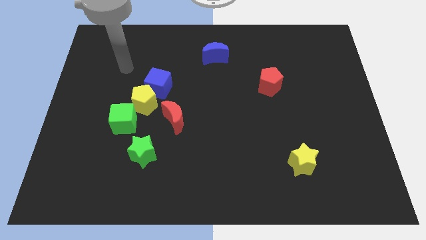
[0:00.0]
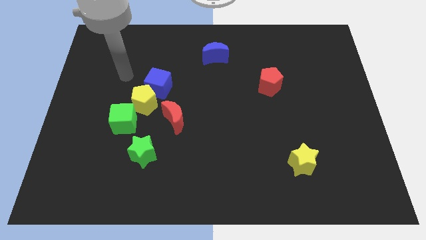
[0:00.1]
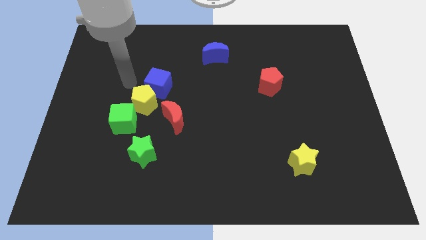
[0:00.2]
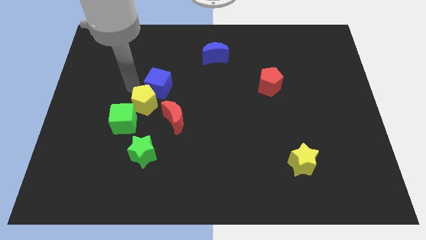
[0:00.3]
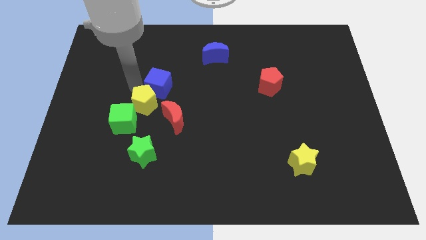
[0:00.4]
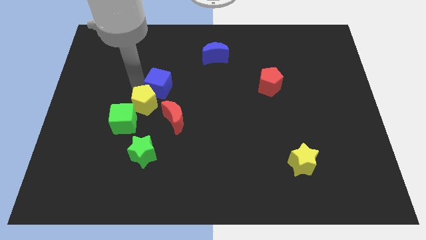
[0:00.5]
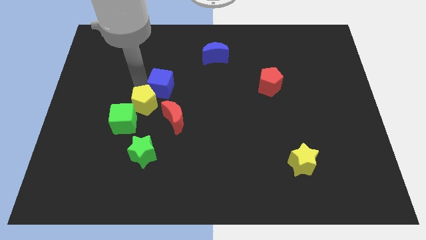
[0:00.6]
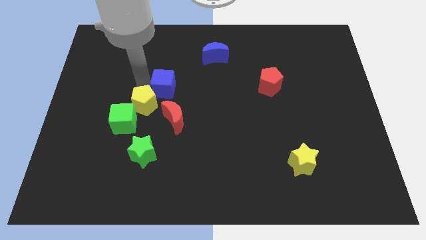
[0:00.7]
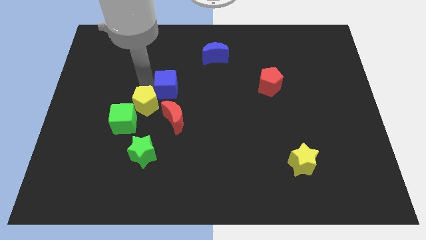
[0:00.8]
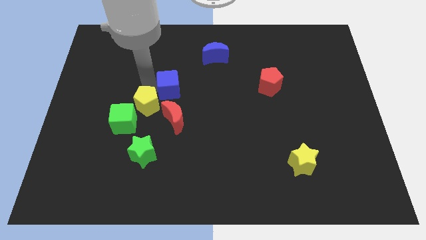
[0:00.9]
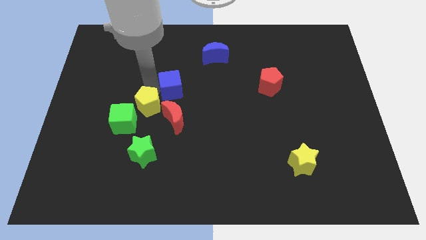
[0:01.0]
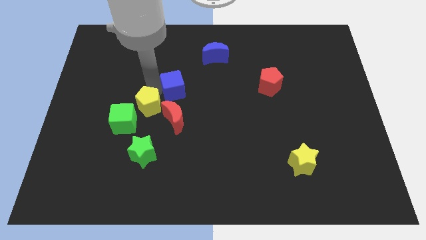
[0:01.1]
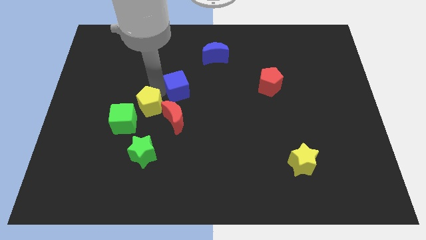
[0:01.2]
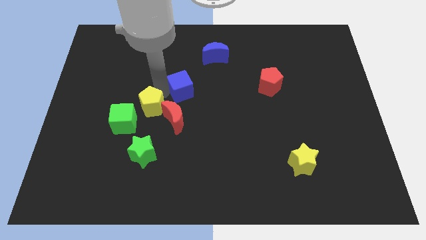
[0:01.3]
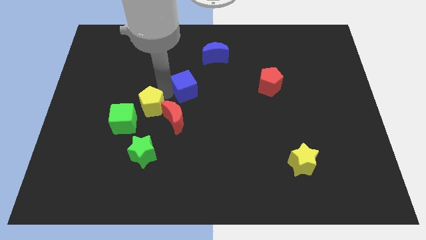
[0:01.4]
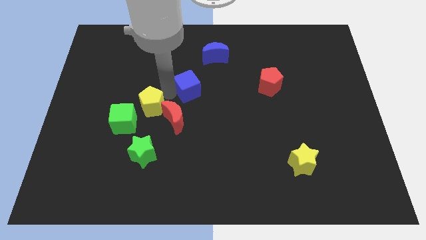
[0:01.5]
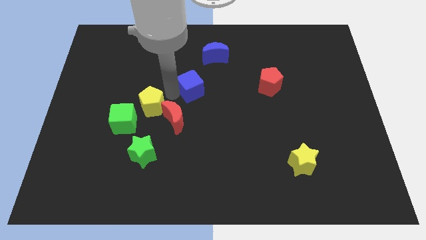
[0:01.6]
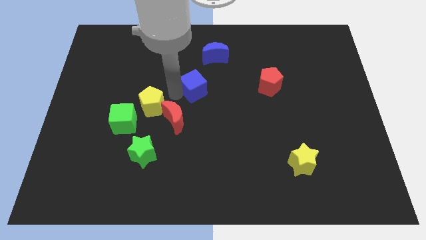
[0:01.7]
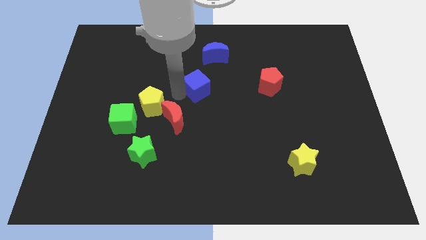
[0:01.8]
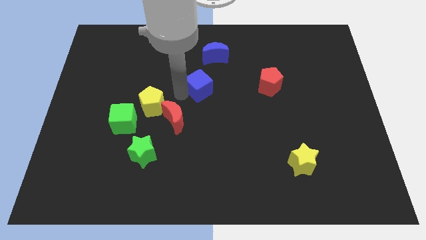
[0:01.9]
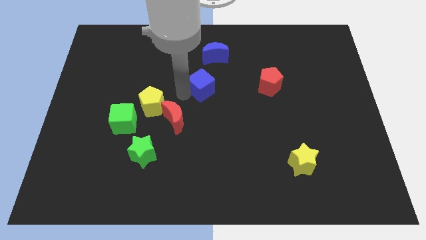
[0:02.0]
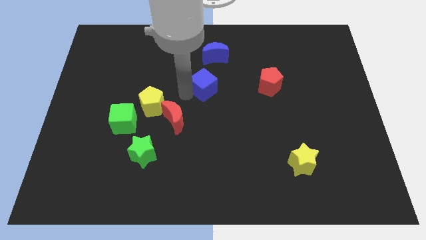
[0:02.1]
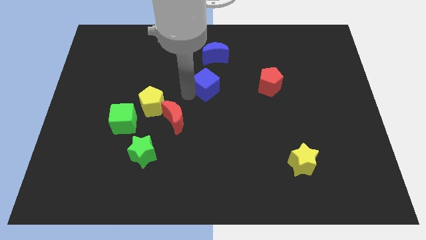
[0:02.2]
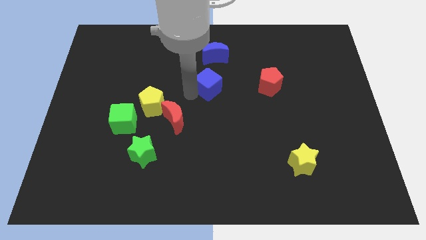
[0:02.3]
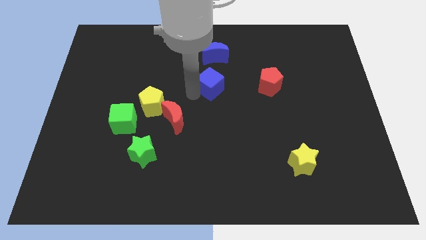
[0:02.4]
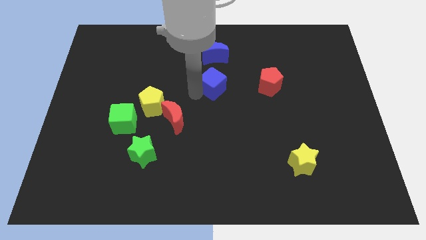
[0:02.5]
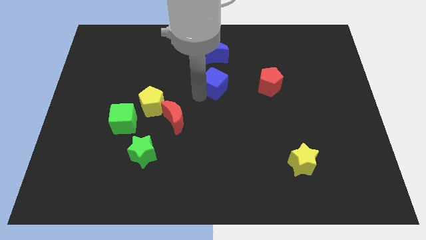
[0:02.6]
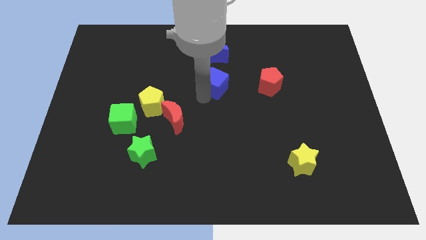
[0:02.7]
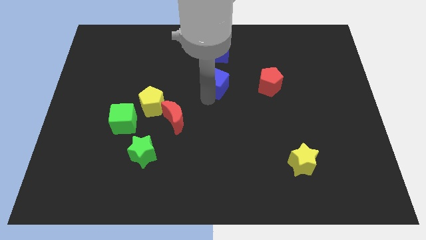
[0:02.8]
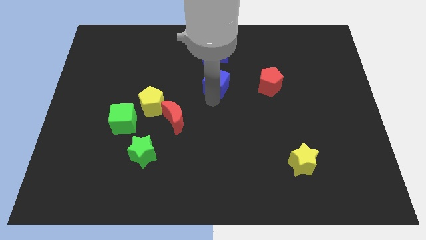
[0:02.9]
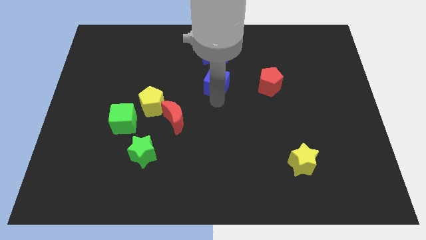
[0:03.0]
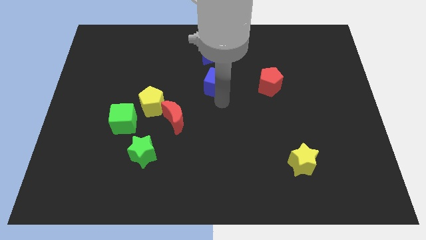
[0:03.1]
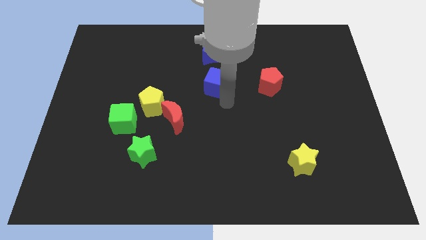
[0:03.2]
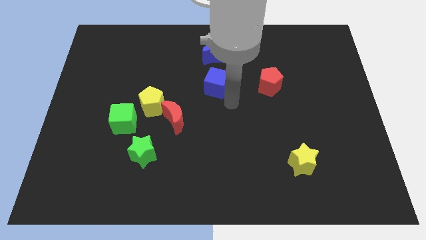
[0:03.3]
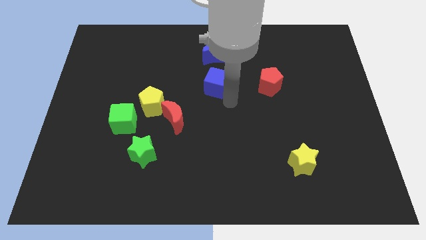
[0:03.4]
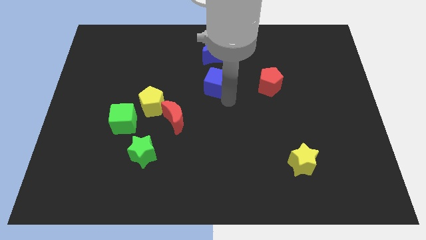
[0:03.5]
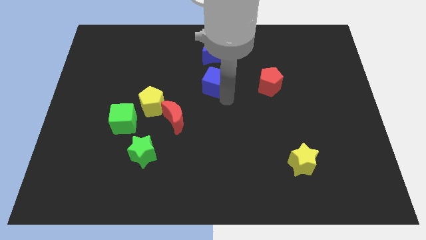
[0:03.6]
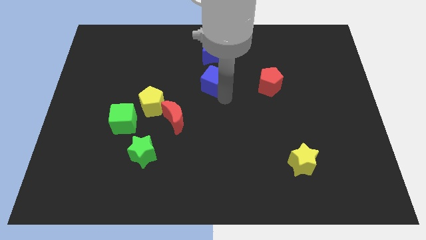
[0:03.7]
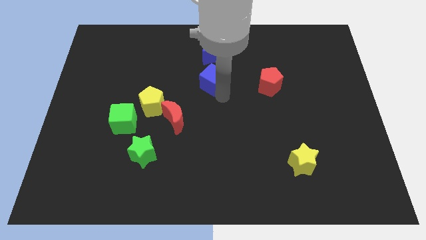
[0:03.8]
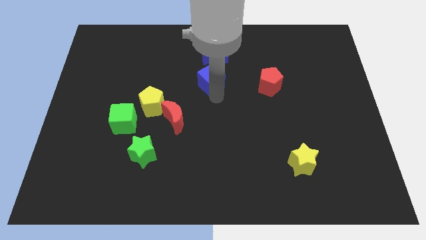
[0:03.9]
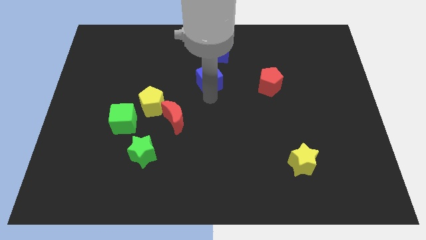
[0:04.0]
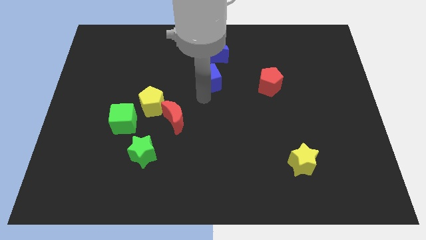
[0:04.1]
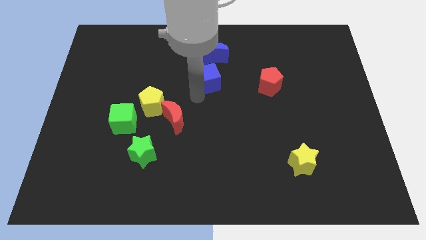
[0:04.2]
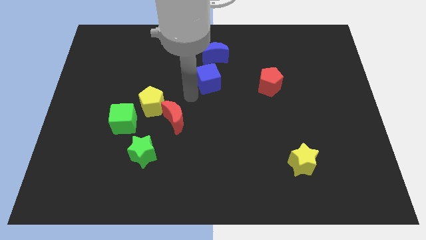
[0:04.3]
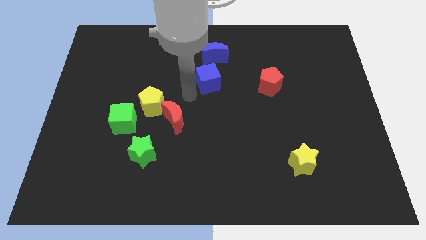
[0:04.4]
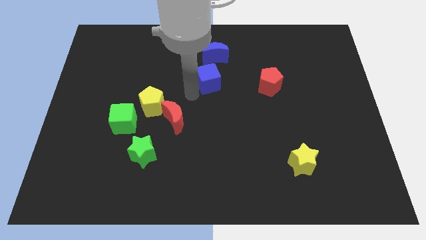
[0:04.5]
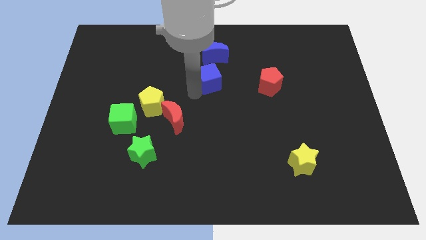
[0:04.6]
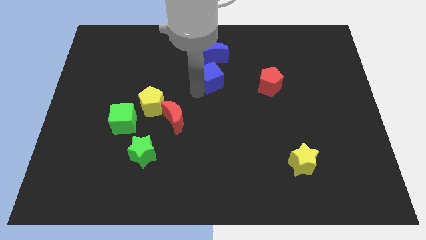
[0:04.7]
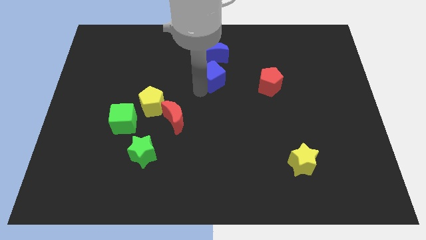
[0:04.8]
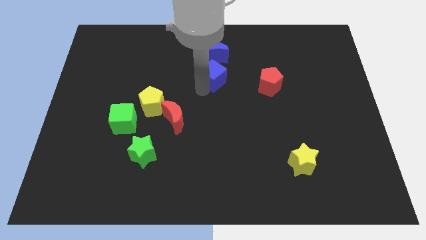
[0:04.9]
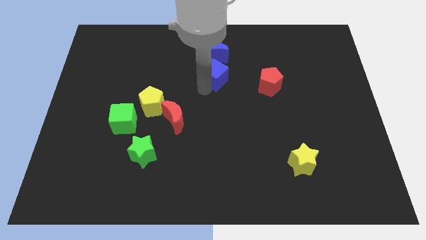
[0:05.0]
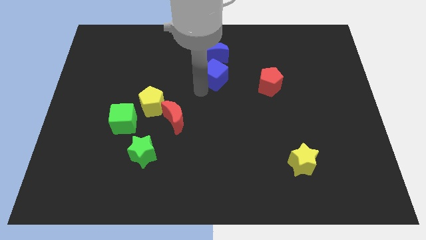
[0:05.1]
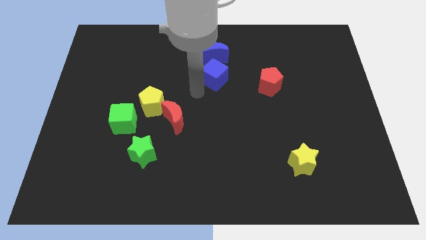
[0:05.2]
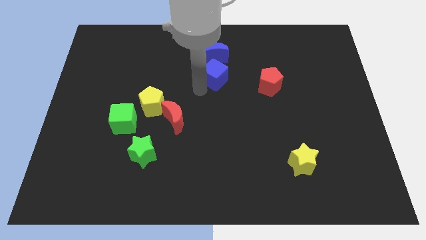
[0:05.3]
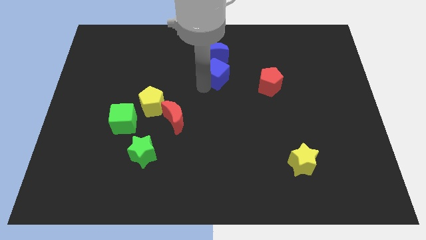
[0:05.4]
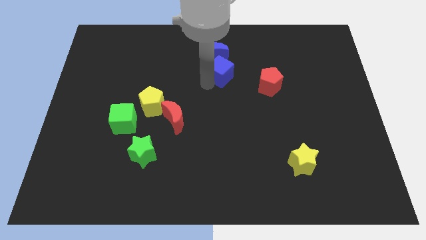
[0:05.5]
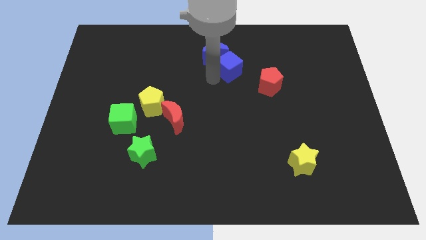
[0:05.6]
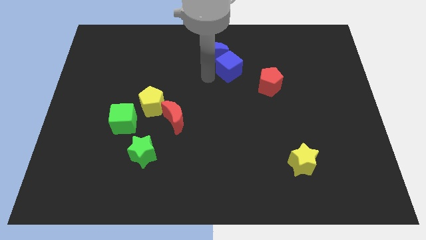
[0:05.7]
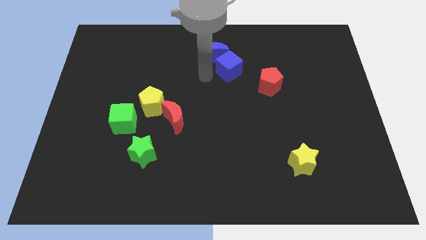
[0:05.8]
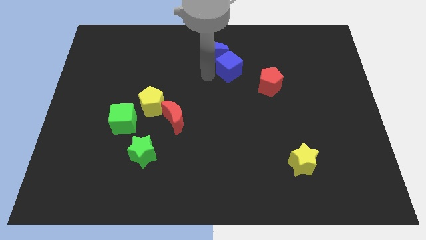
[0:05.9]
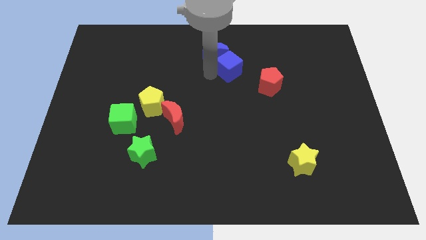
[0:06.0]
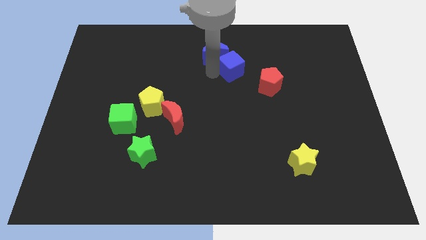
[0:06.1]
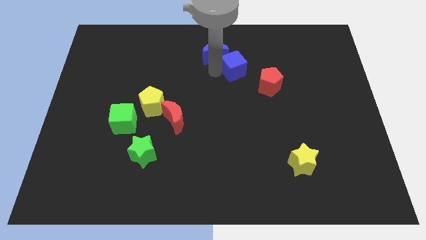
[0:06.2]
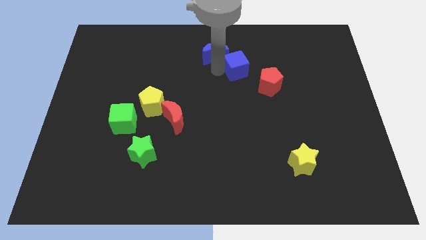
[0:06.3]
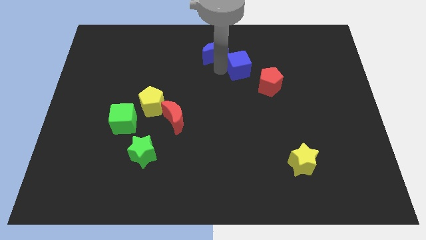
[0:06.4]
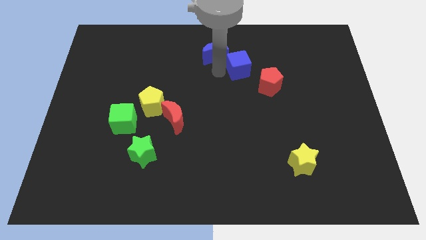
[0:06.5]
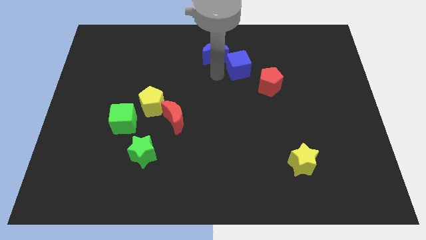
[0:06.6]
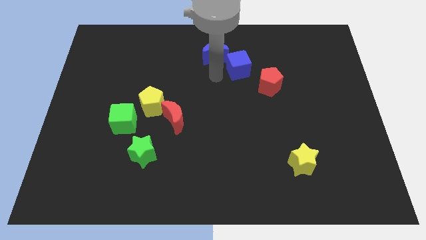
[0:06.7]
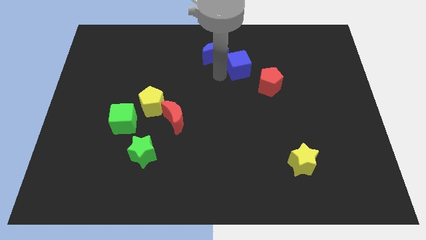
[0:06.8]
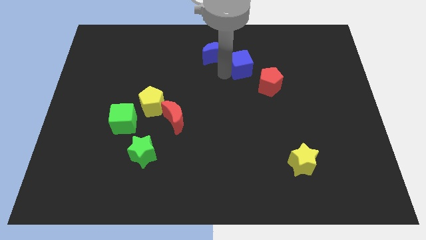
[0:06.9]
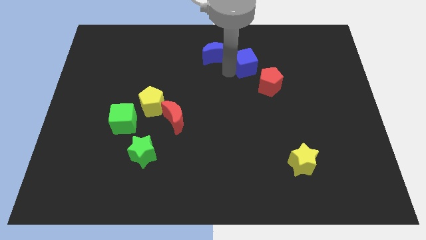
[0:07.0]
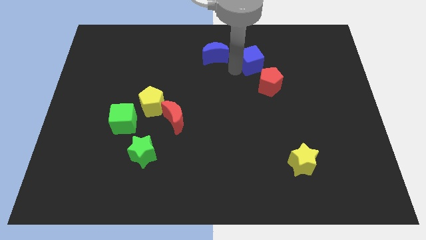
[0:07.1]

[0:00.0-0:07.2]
slide the blue cube to the top of the red pentagon

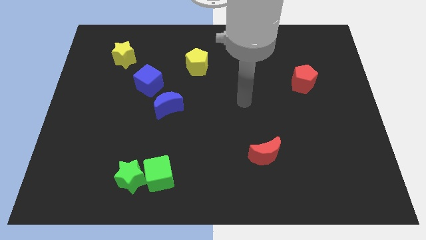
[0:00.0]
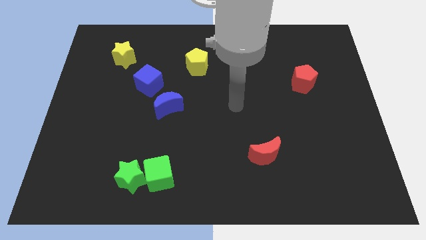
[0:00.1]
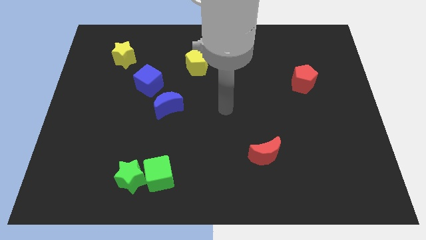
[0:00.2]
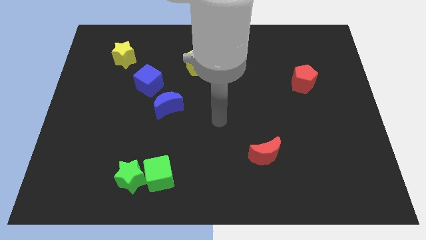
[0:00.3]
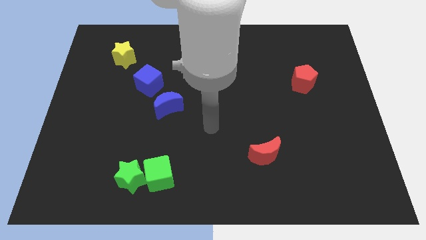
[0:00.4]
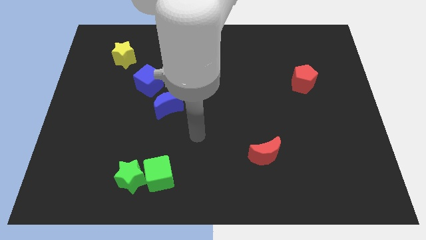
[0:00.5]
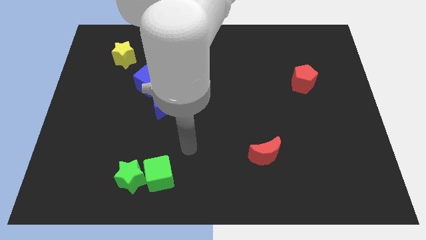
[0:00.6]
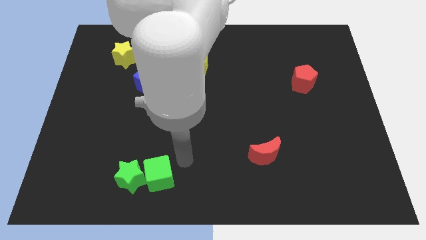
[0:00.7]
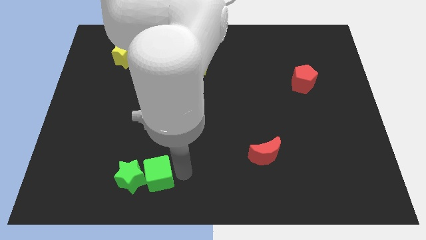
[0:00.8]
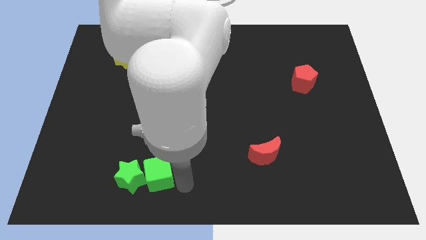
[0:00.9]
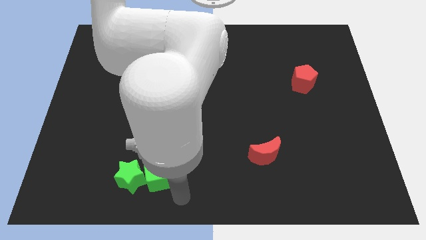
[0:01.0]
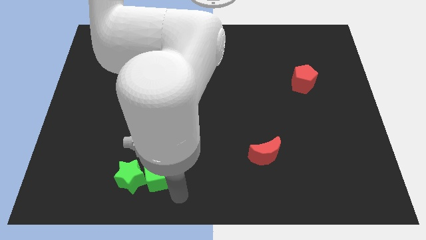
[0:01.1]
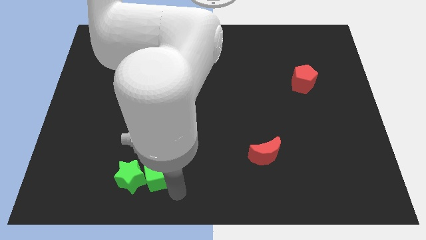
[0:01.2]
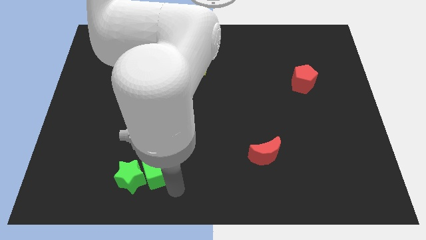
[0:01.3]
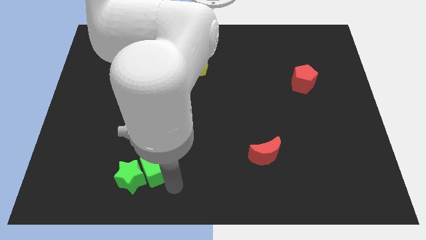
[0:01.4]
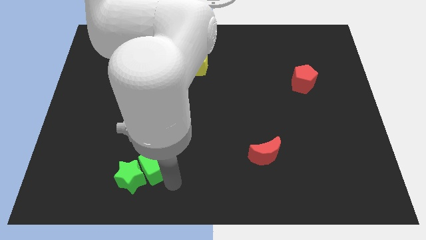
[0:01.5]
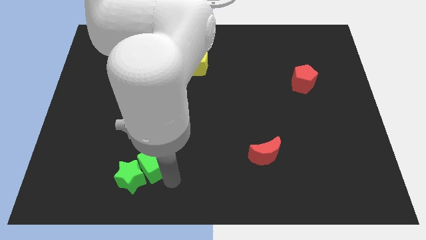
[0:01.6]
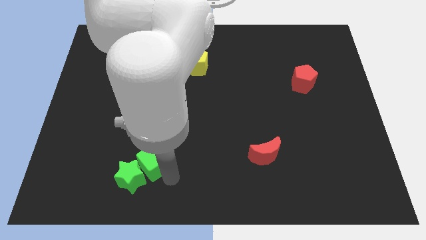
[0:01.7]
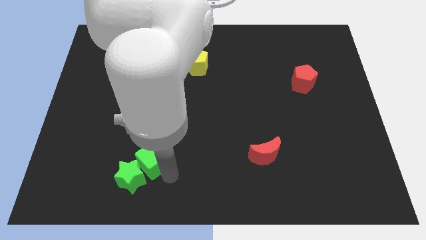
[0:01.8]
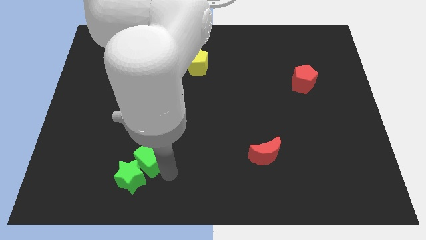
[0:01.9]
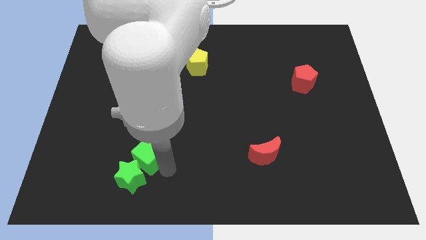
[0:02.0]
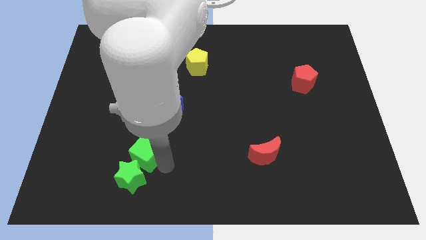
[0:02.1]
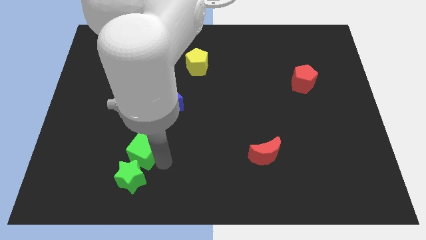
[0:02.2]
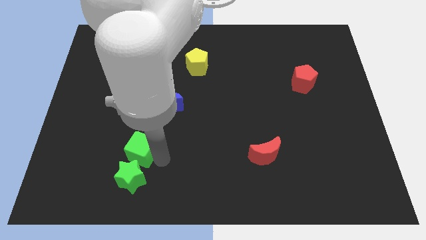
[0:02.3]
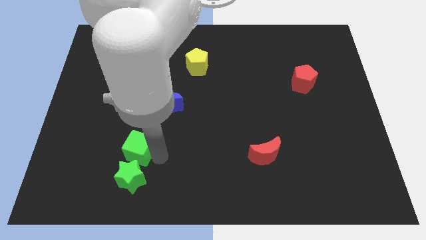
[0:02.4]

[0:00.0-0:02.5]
move the green cube diagonally up and to the left of the green star
